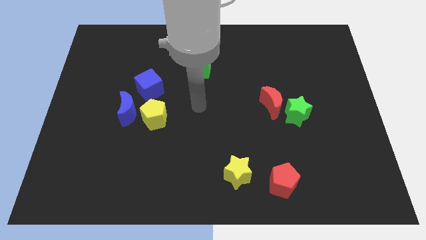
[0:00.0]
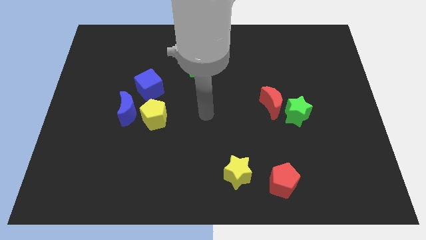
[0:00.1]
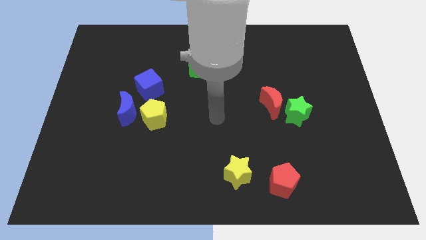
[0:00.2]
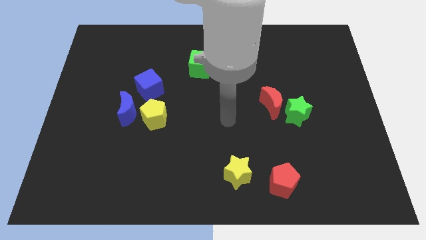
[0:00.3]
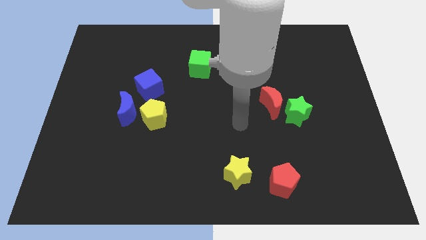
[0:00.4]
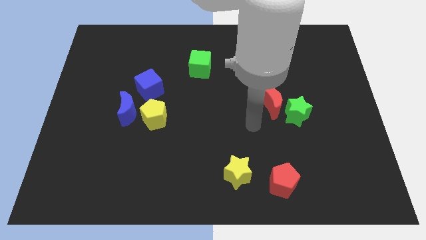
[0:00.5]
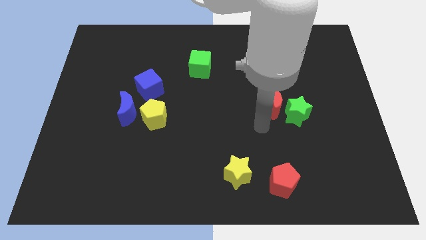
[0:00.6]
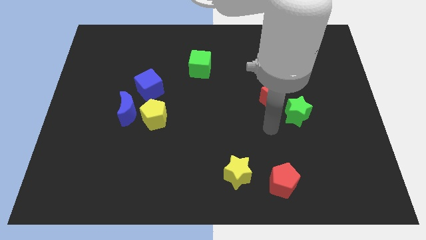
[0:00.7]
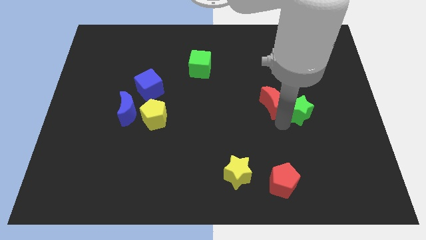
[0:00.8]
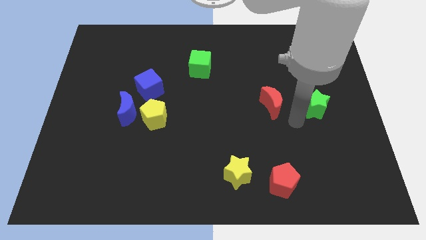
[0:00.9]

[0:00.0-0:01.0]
move the red moon away from the green star

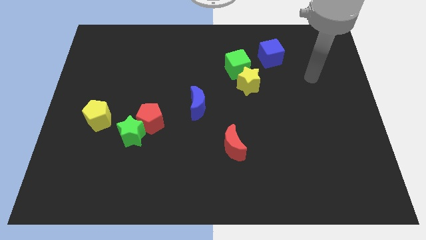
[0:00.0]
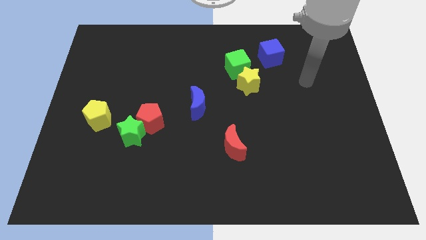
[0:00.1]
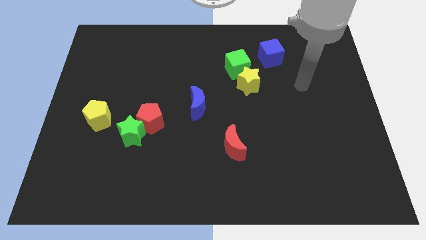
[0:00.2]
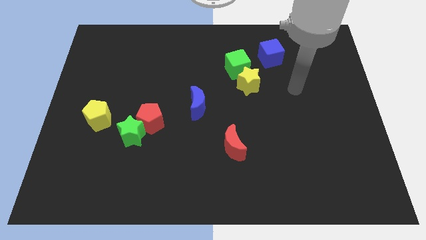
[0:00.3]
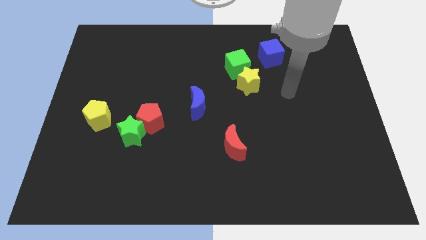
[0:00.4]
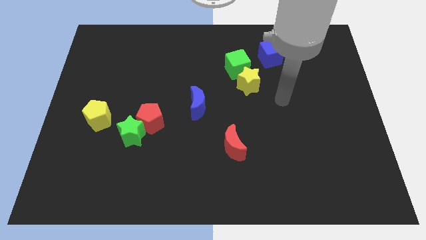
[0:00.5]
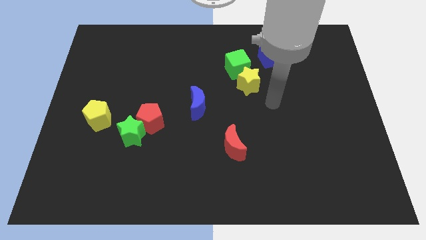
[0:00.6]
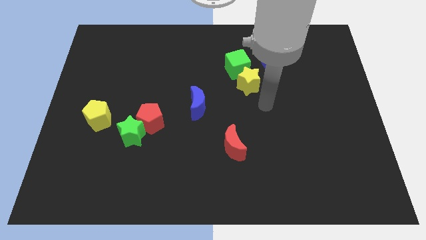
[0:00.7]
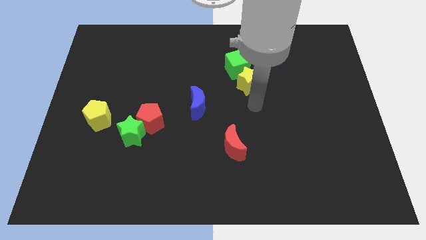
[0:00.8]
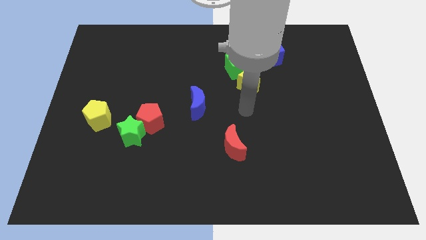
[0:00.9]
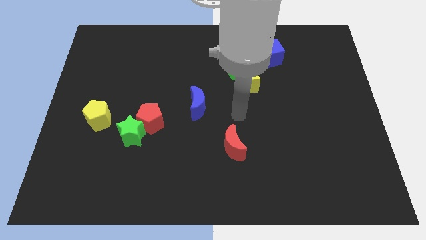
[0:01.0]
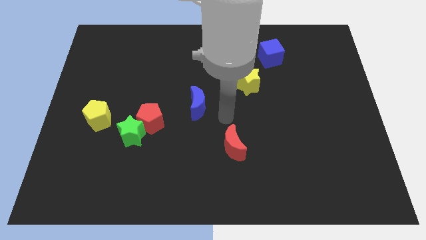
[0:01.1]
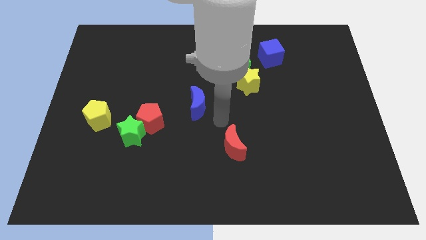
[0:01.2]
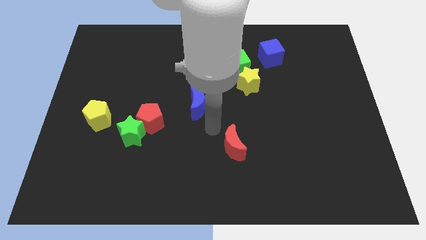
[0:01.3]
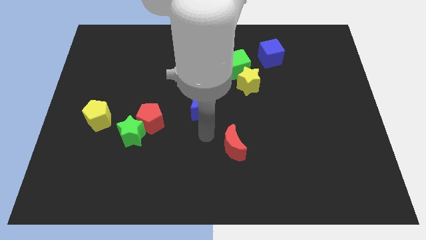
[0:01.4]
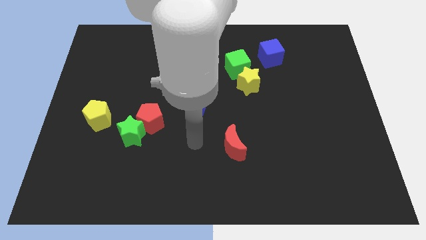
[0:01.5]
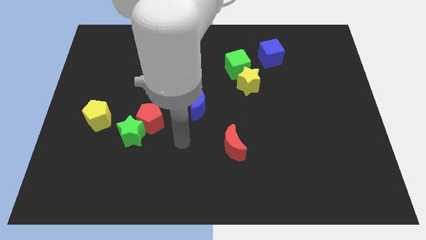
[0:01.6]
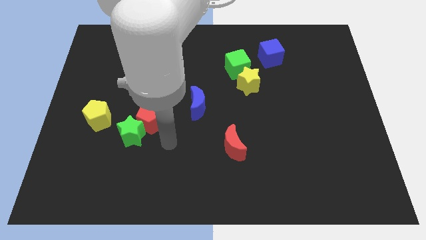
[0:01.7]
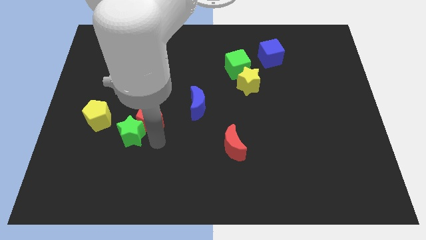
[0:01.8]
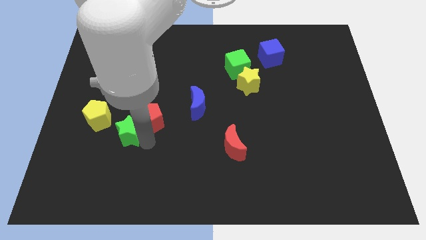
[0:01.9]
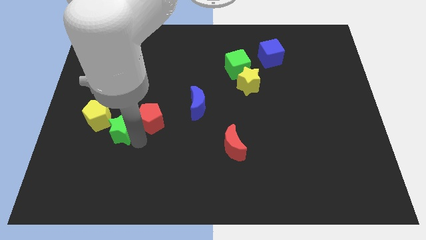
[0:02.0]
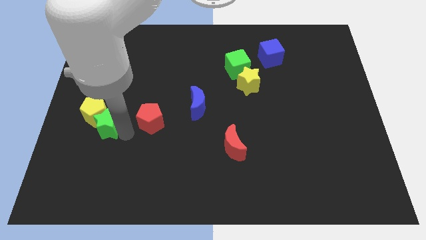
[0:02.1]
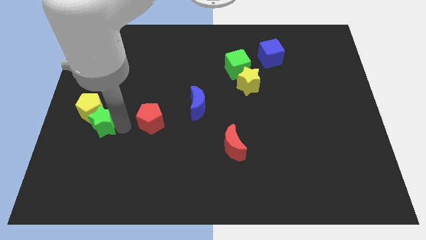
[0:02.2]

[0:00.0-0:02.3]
move the red pentagon away from the green star

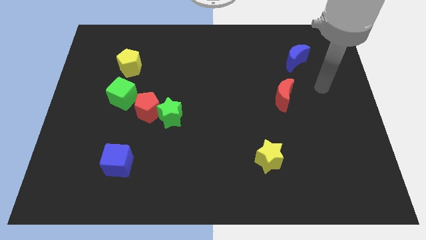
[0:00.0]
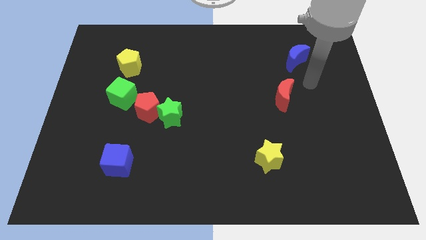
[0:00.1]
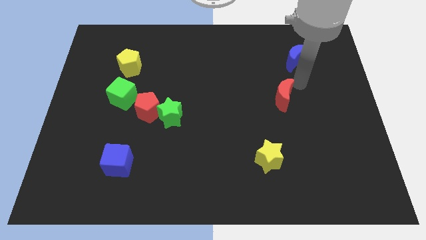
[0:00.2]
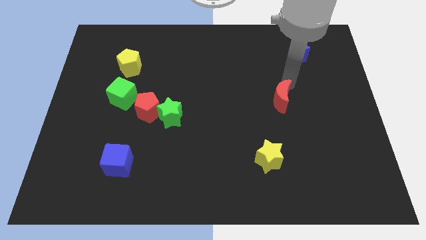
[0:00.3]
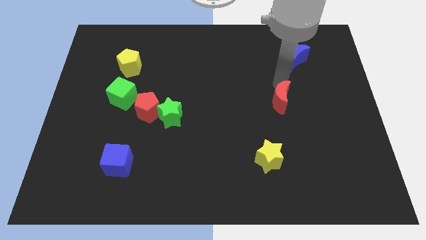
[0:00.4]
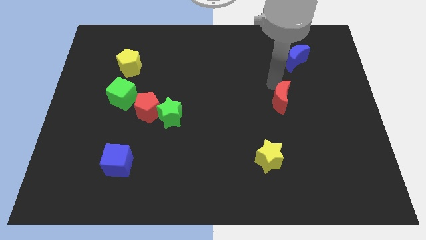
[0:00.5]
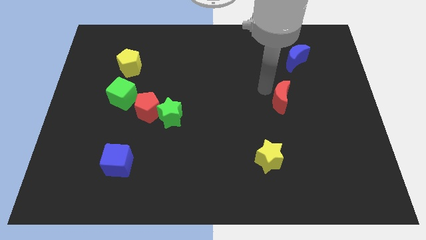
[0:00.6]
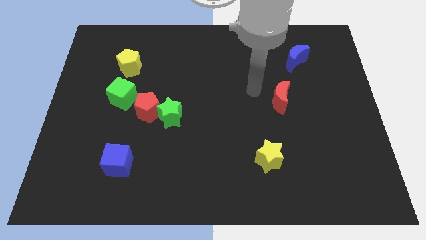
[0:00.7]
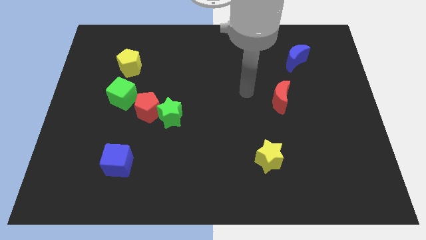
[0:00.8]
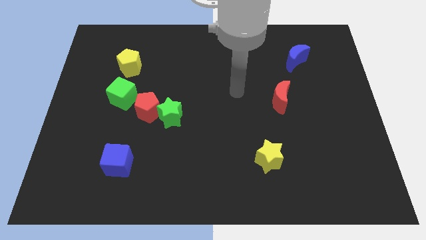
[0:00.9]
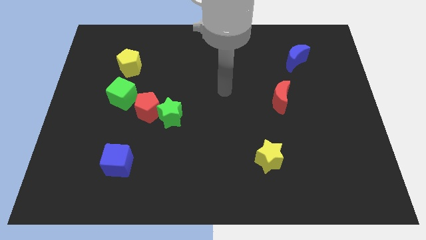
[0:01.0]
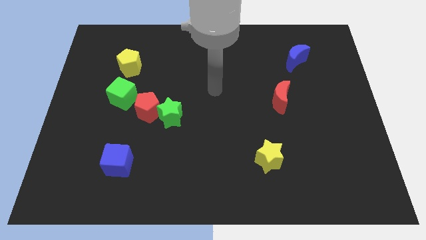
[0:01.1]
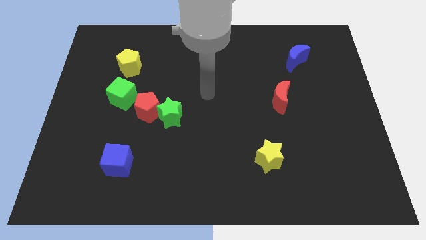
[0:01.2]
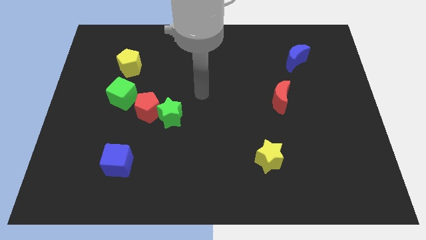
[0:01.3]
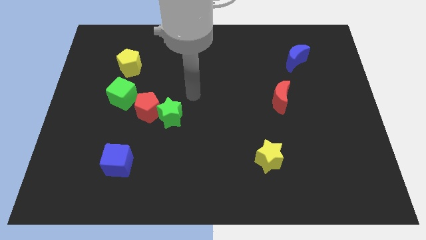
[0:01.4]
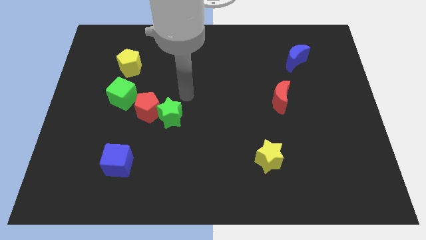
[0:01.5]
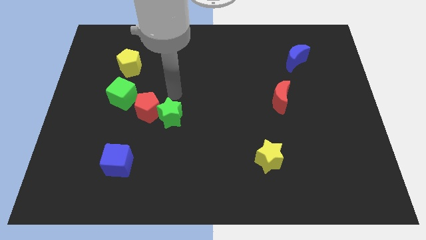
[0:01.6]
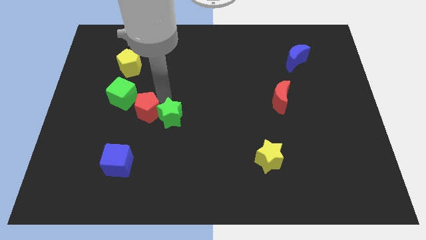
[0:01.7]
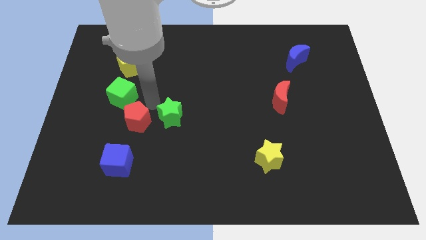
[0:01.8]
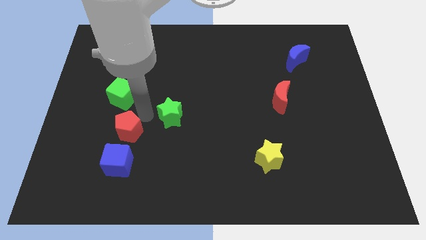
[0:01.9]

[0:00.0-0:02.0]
separate the green star from the red pentagon

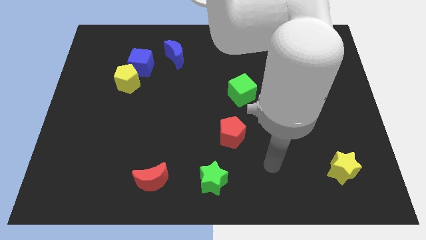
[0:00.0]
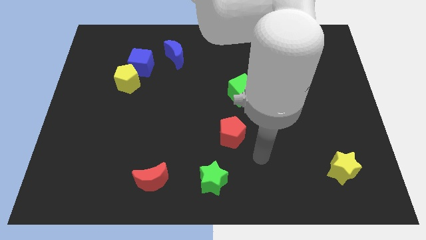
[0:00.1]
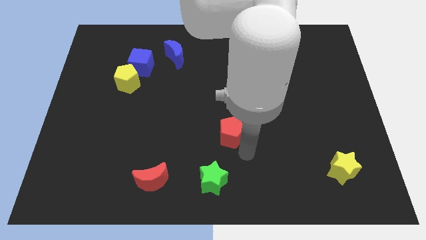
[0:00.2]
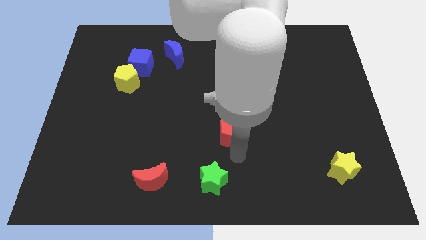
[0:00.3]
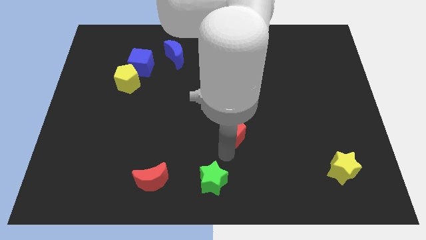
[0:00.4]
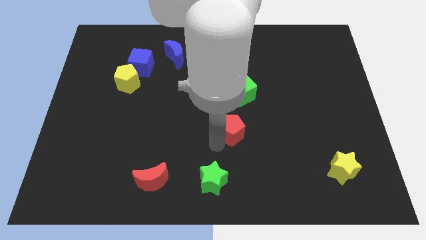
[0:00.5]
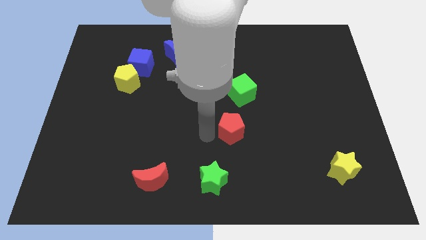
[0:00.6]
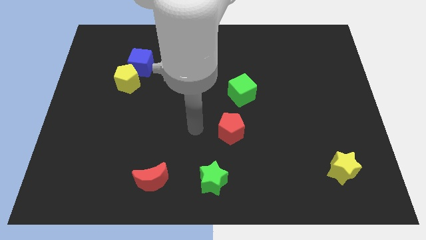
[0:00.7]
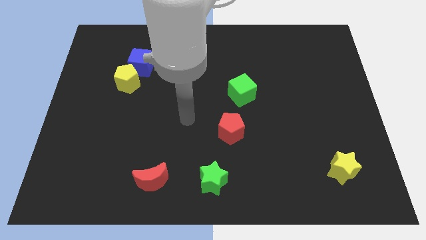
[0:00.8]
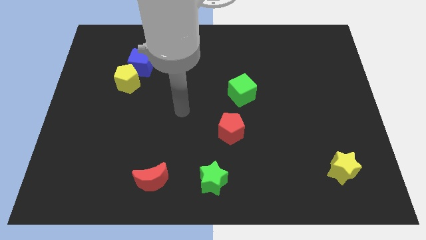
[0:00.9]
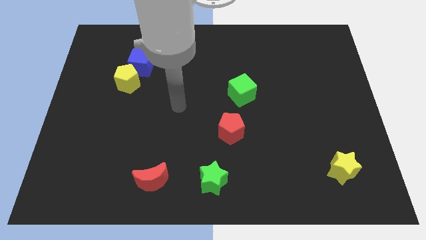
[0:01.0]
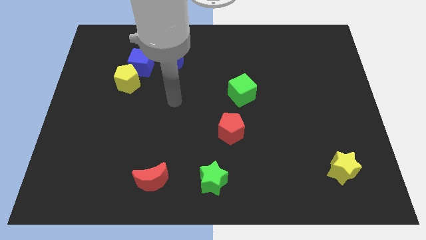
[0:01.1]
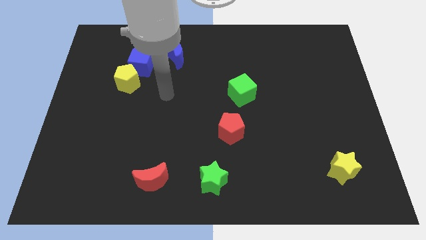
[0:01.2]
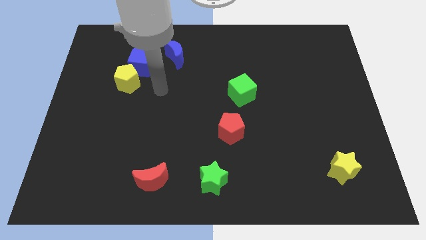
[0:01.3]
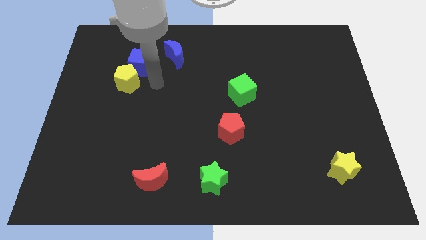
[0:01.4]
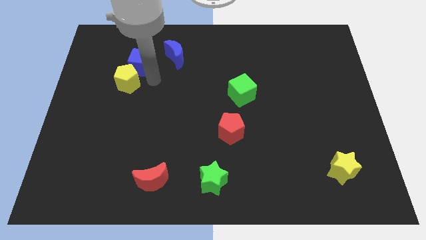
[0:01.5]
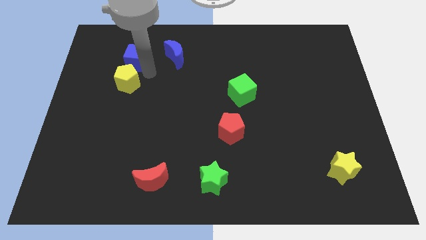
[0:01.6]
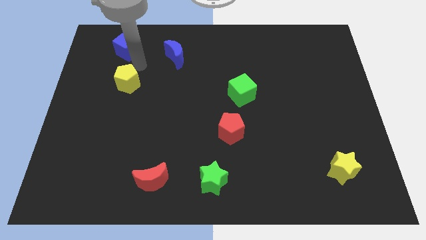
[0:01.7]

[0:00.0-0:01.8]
pull the yellow pentagon apart from the blue cube

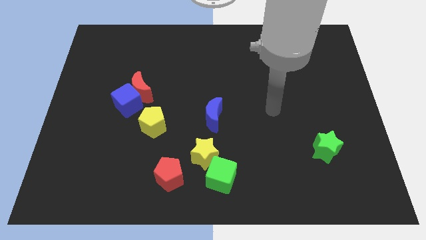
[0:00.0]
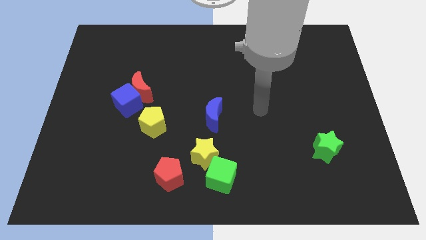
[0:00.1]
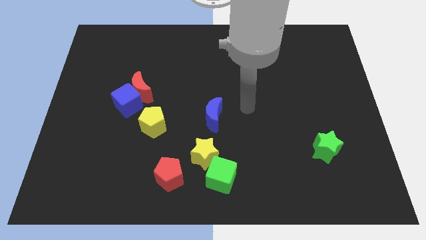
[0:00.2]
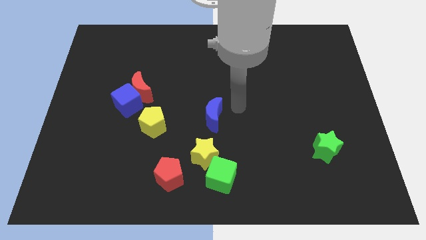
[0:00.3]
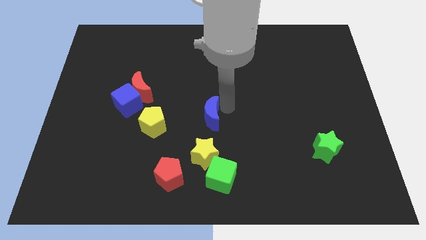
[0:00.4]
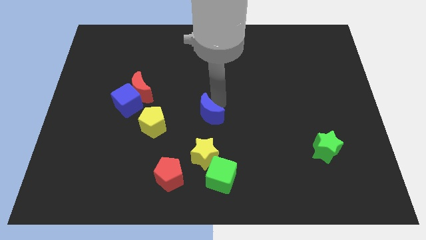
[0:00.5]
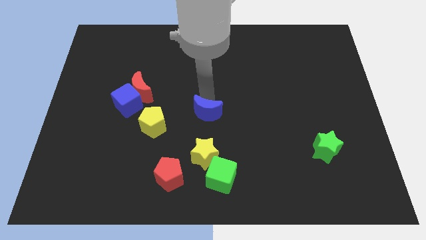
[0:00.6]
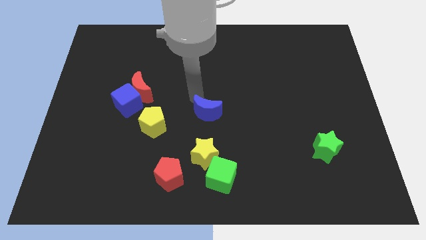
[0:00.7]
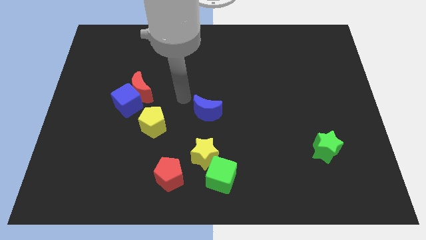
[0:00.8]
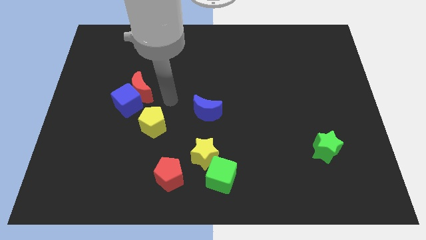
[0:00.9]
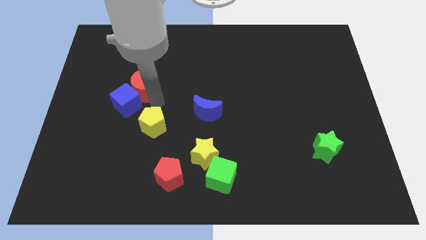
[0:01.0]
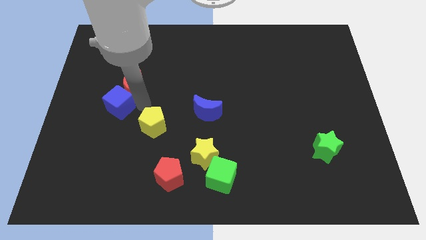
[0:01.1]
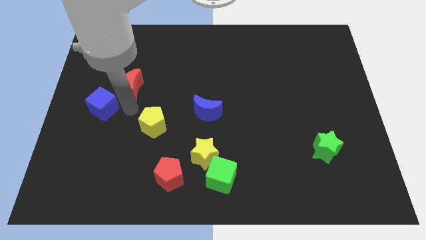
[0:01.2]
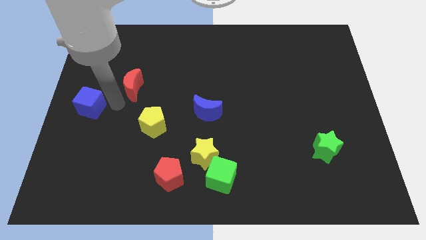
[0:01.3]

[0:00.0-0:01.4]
pull the red moon apart from the blue cube

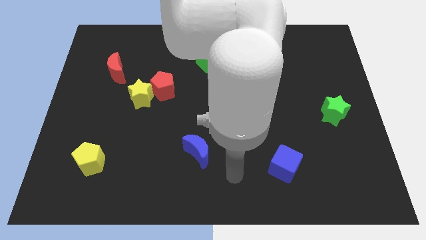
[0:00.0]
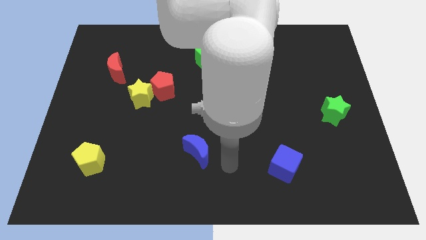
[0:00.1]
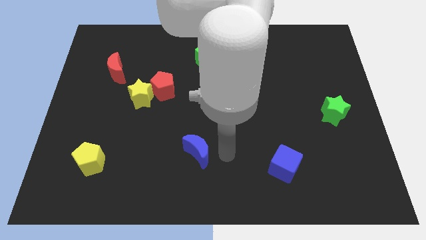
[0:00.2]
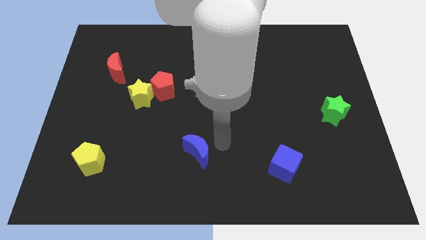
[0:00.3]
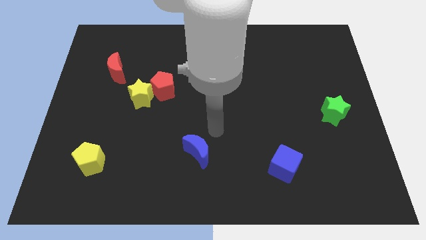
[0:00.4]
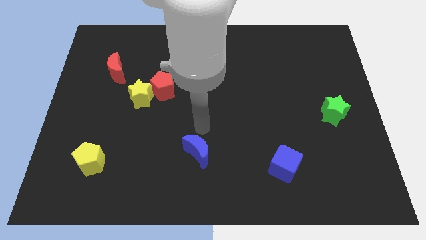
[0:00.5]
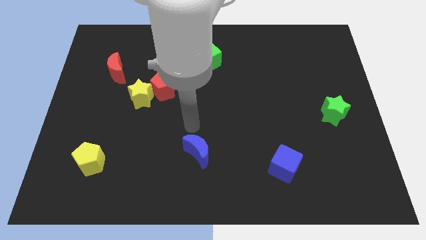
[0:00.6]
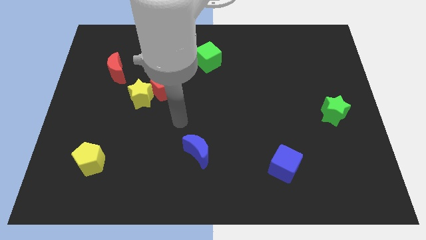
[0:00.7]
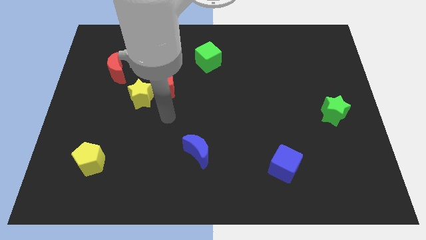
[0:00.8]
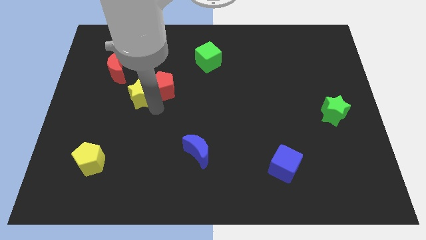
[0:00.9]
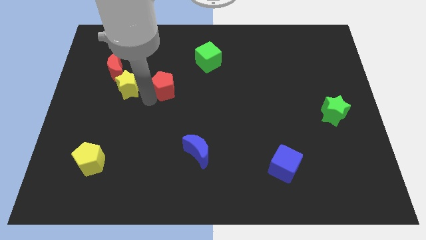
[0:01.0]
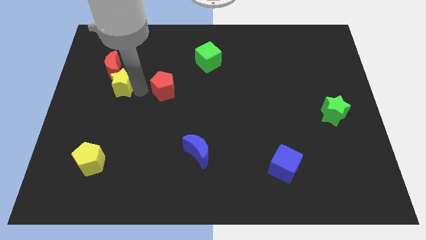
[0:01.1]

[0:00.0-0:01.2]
pull the red pentagon apart from the yellow star
